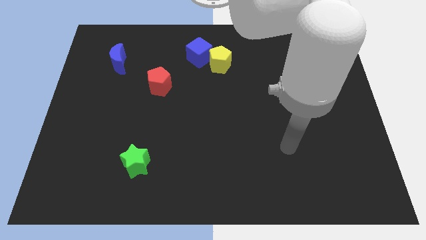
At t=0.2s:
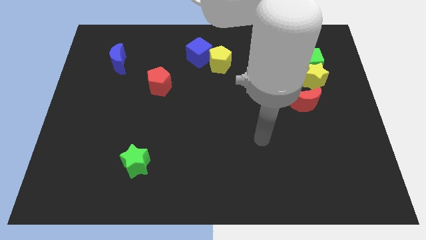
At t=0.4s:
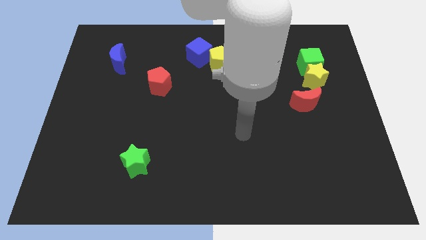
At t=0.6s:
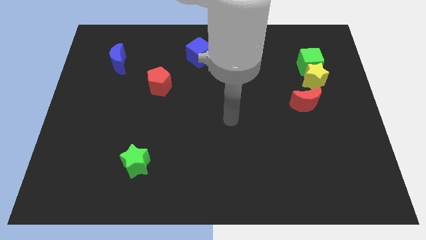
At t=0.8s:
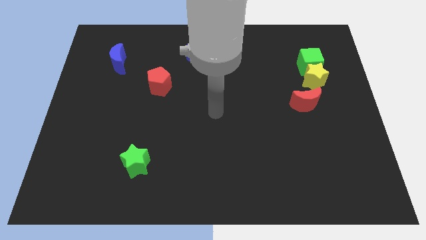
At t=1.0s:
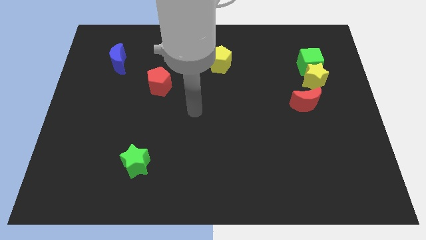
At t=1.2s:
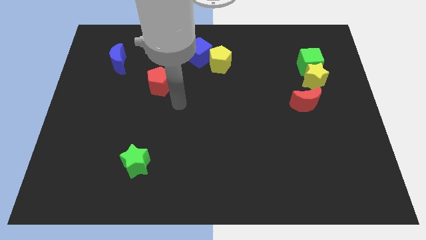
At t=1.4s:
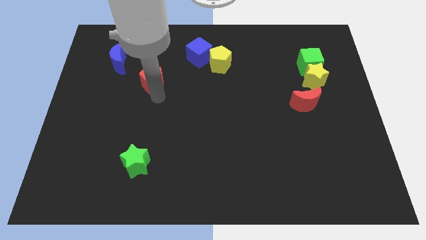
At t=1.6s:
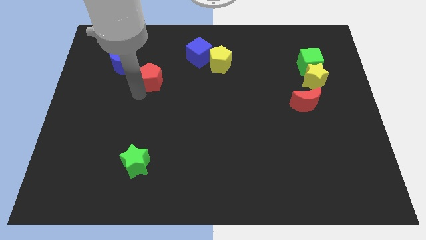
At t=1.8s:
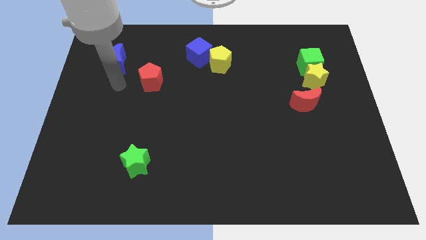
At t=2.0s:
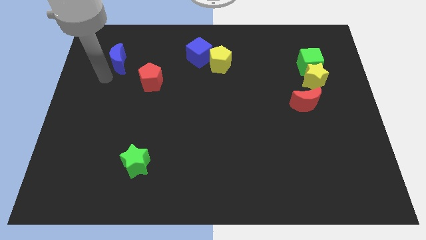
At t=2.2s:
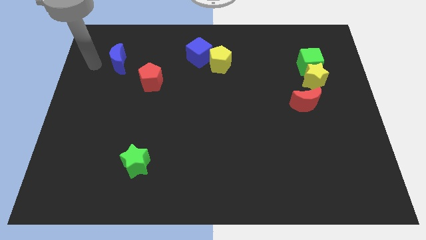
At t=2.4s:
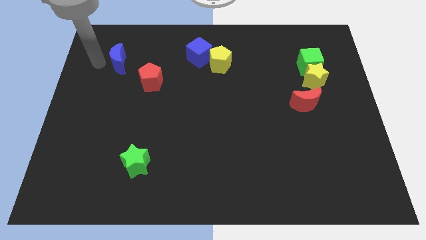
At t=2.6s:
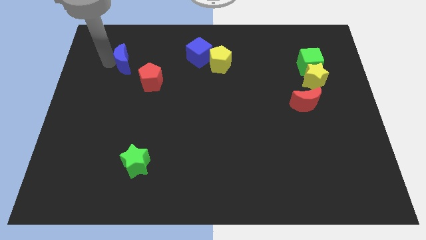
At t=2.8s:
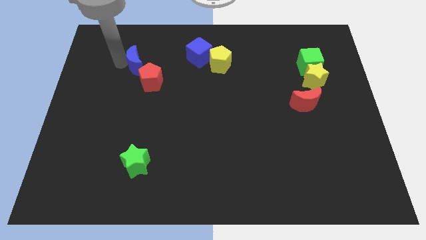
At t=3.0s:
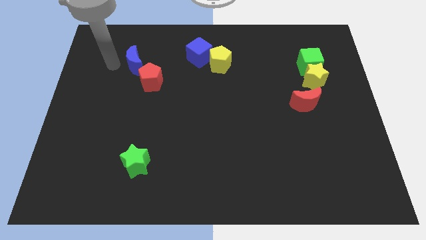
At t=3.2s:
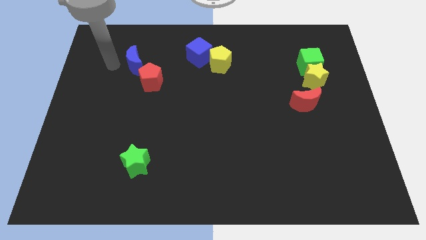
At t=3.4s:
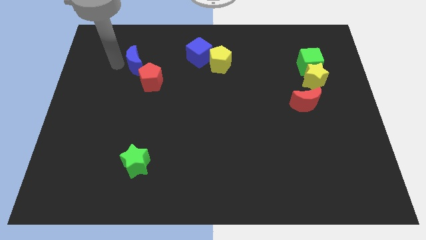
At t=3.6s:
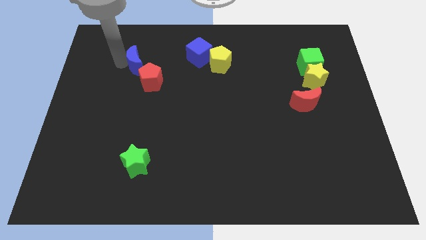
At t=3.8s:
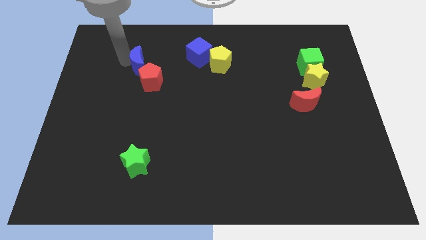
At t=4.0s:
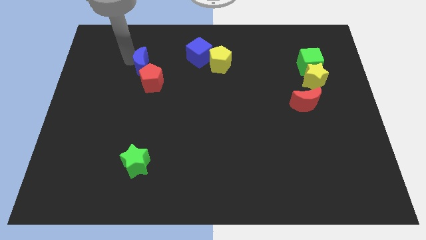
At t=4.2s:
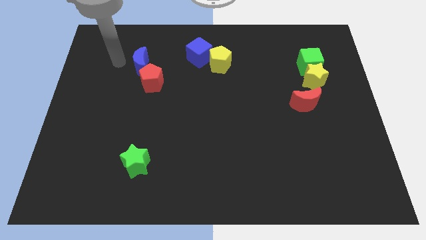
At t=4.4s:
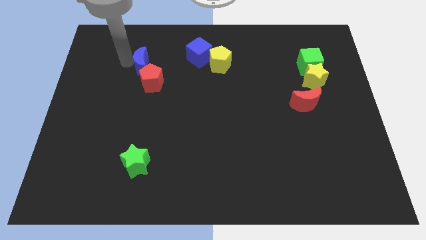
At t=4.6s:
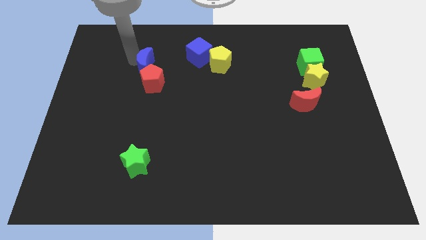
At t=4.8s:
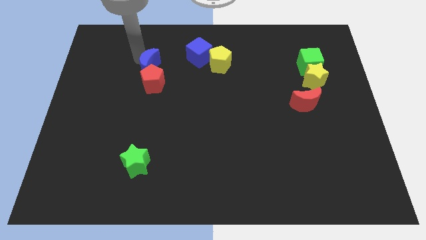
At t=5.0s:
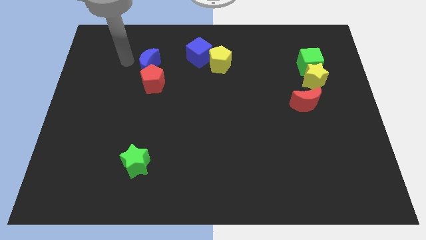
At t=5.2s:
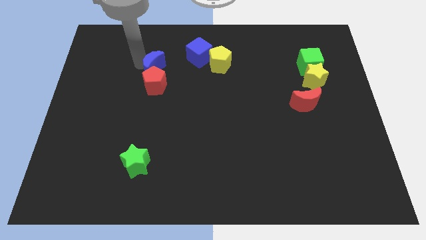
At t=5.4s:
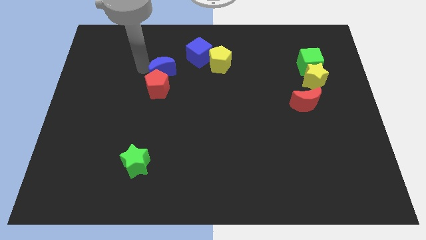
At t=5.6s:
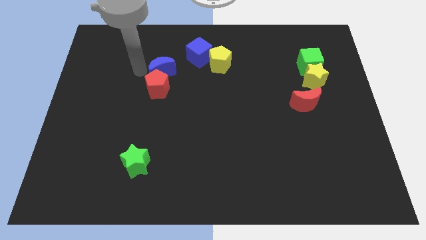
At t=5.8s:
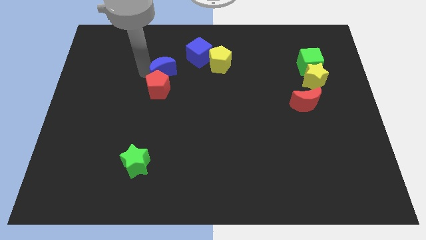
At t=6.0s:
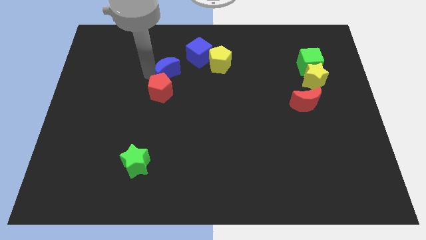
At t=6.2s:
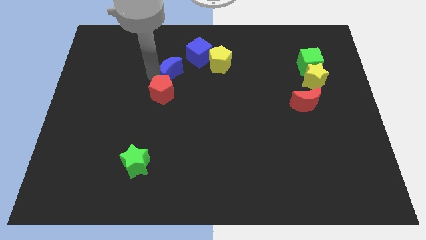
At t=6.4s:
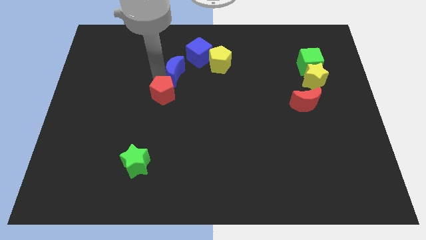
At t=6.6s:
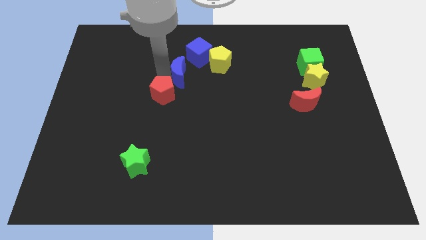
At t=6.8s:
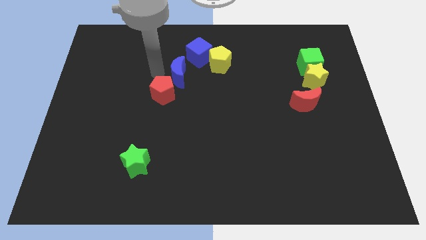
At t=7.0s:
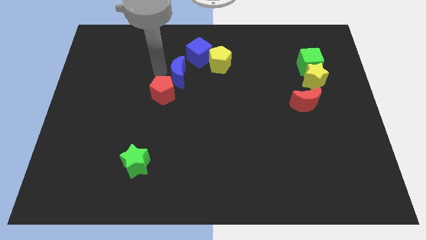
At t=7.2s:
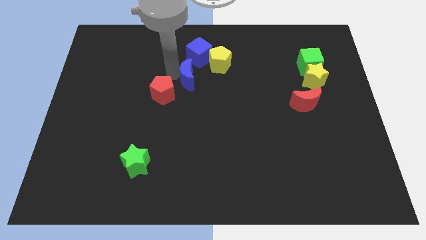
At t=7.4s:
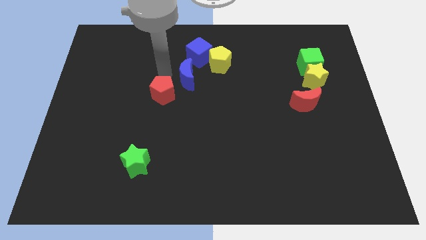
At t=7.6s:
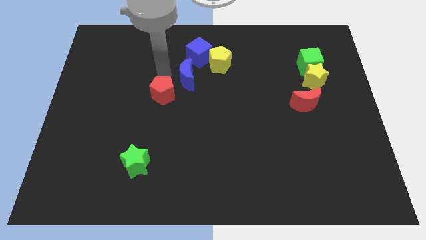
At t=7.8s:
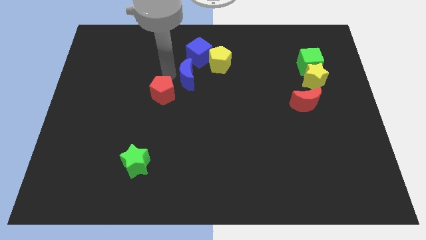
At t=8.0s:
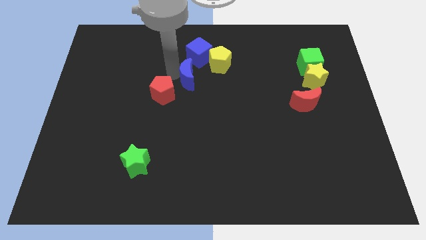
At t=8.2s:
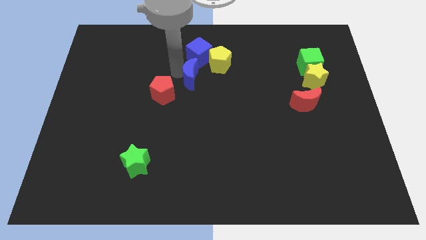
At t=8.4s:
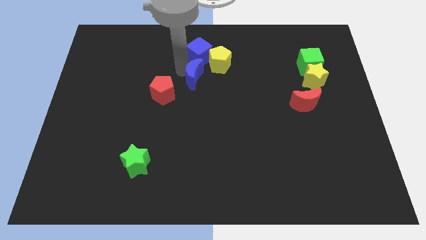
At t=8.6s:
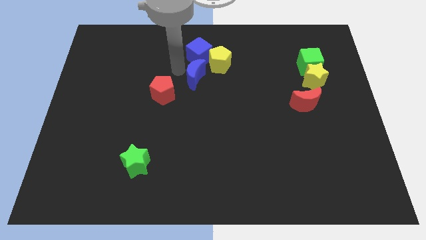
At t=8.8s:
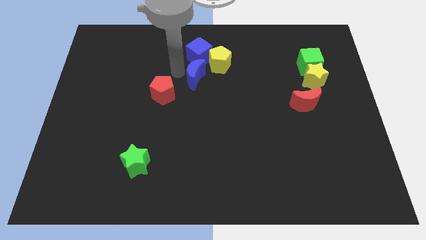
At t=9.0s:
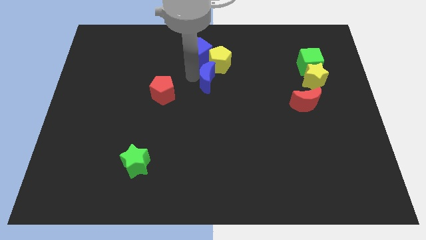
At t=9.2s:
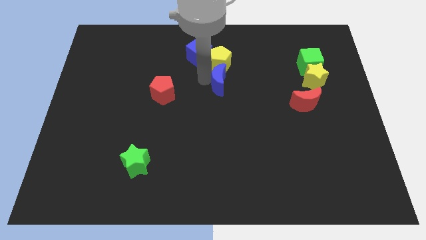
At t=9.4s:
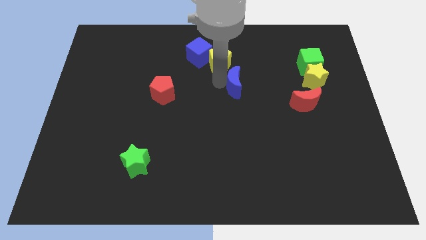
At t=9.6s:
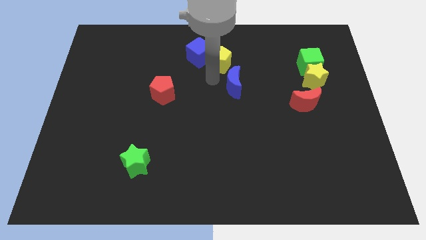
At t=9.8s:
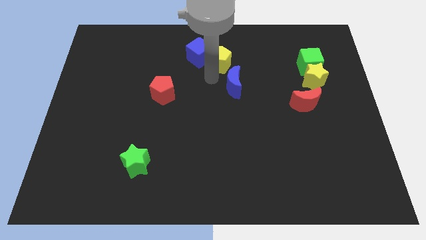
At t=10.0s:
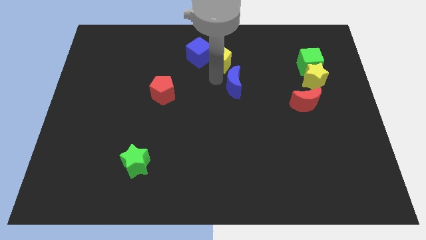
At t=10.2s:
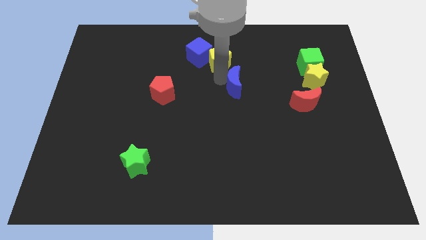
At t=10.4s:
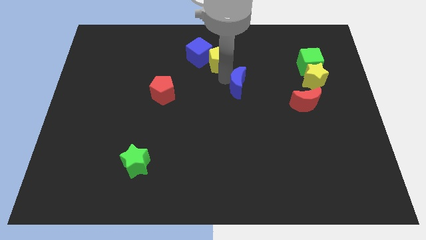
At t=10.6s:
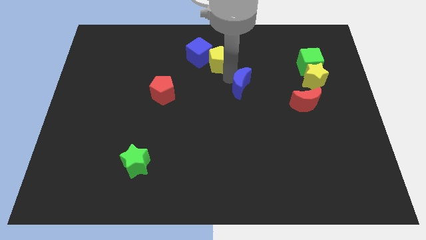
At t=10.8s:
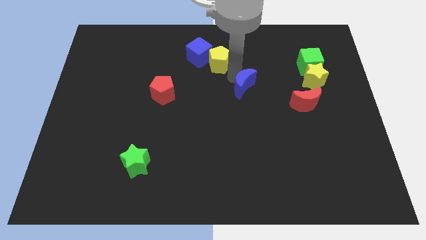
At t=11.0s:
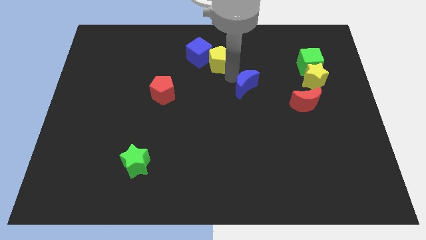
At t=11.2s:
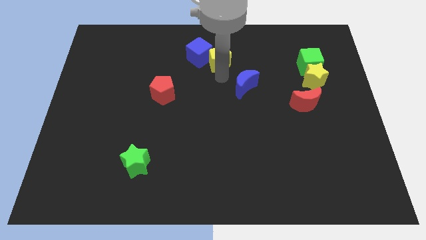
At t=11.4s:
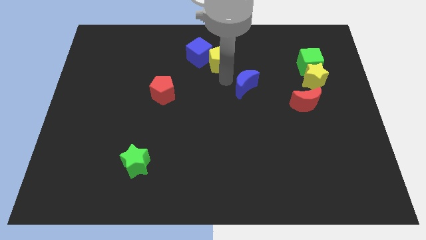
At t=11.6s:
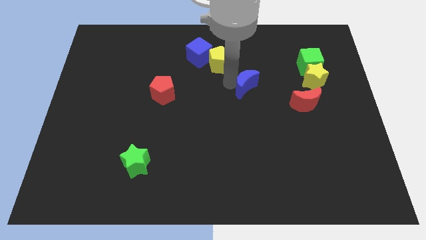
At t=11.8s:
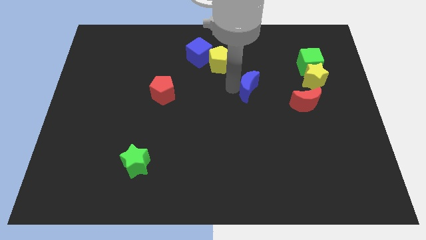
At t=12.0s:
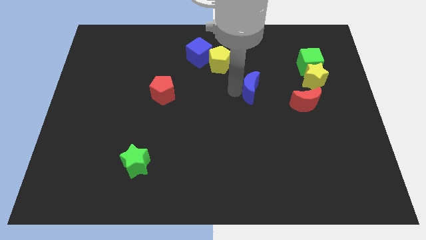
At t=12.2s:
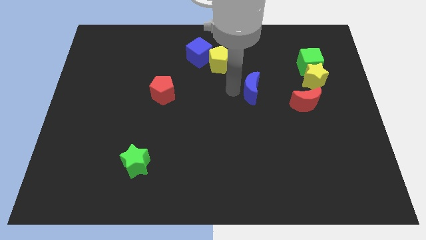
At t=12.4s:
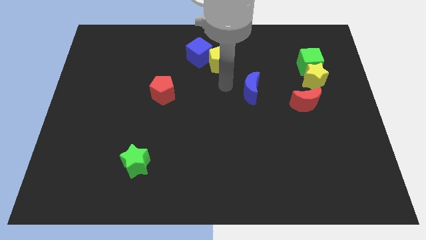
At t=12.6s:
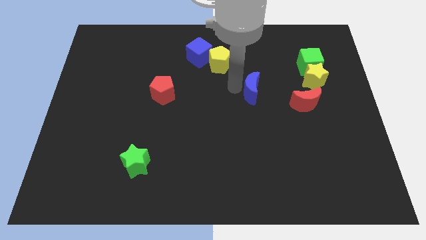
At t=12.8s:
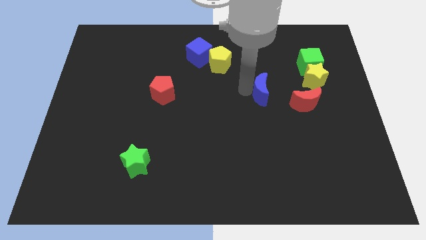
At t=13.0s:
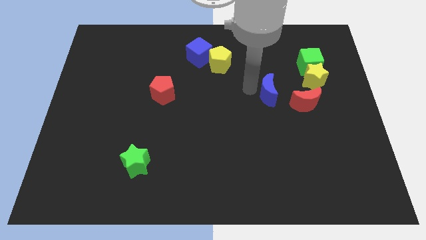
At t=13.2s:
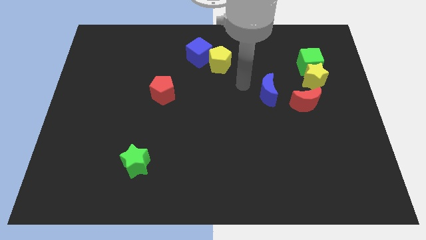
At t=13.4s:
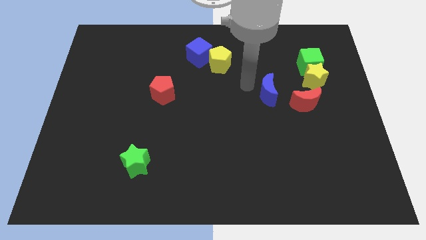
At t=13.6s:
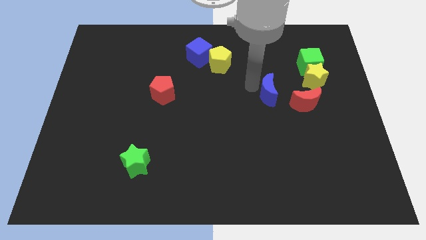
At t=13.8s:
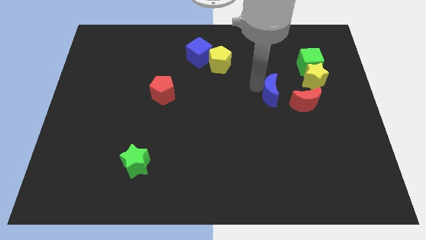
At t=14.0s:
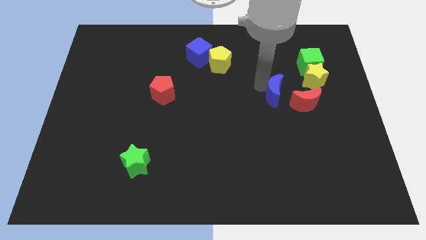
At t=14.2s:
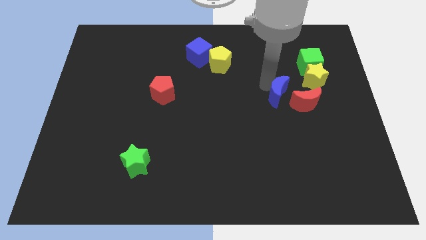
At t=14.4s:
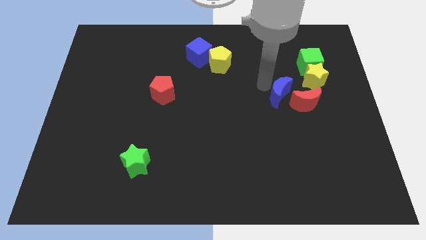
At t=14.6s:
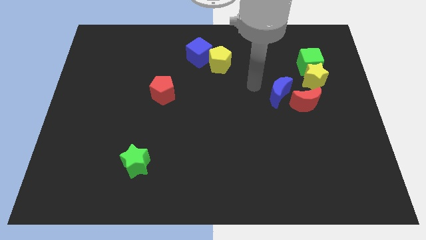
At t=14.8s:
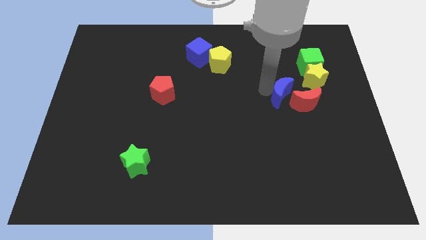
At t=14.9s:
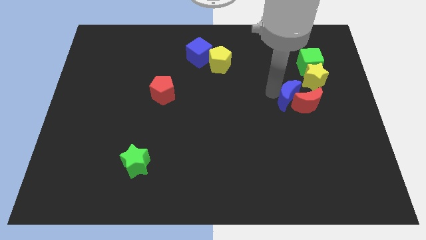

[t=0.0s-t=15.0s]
slide the blue moon towards the red moon

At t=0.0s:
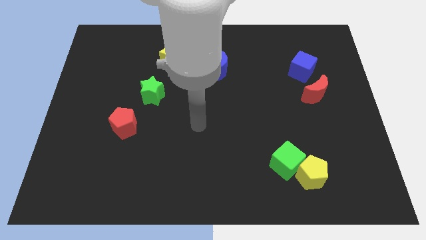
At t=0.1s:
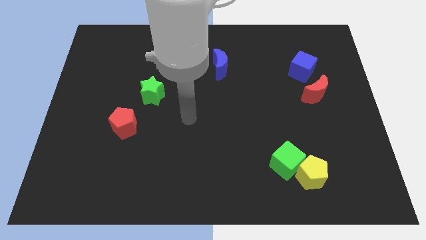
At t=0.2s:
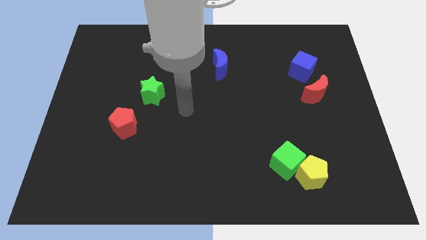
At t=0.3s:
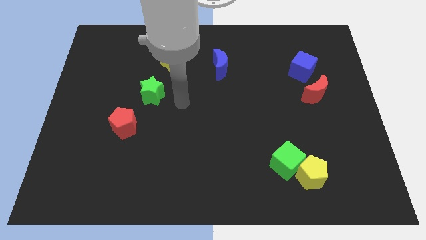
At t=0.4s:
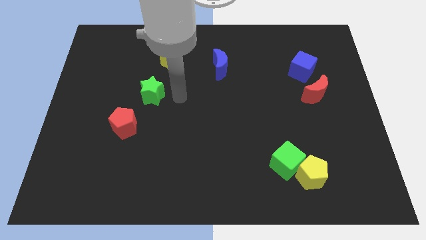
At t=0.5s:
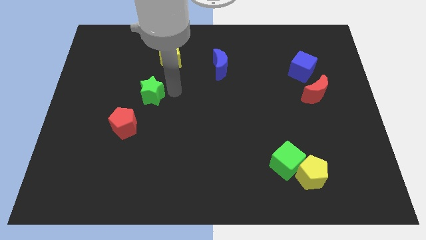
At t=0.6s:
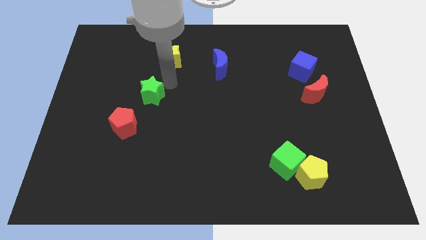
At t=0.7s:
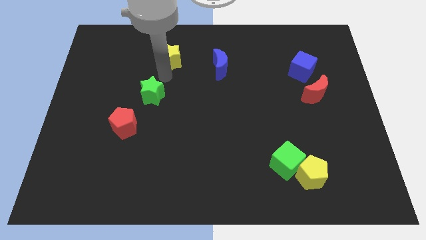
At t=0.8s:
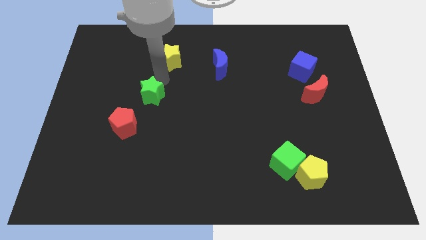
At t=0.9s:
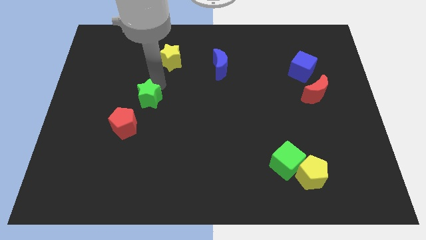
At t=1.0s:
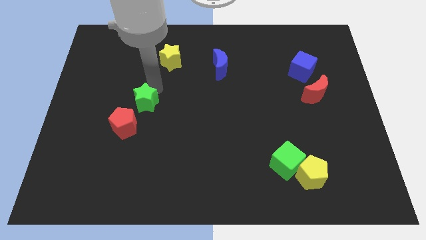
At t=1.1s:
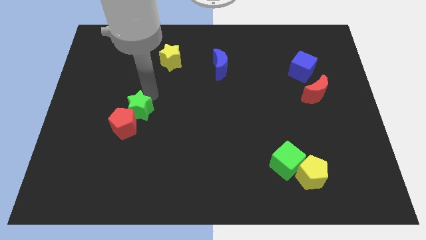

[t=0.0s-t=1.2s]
push the green star close to the red pentagon
